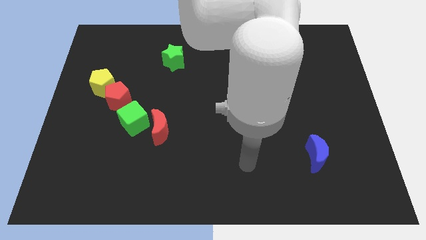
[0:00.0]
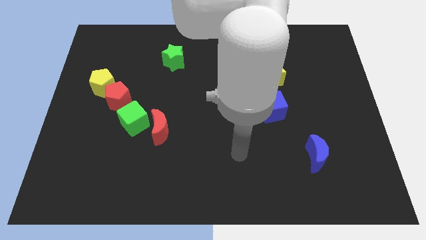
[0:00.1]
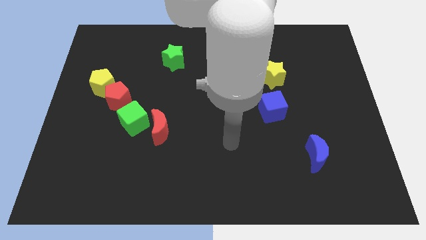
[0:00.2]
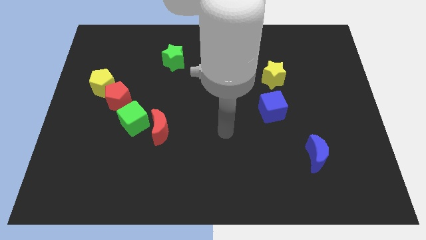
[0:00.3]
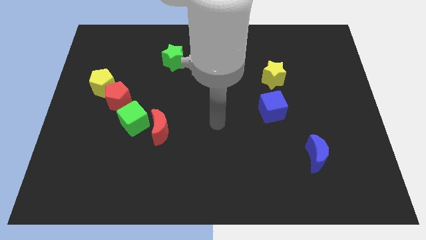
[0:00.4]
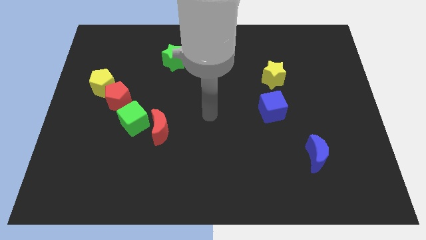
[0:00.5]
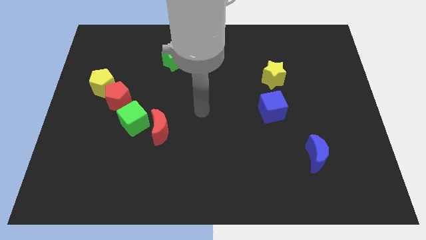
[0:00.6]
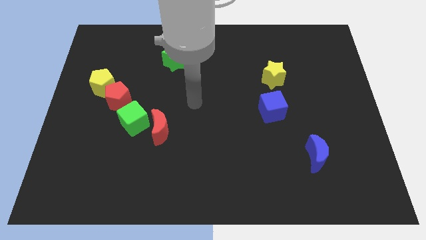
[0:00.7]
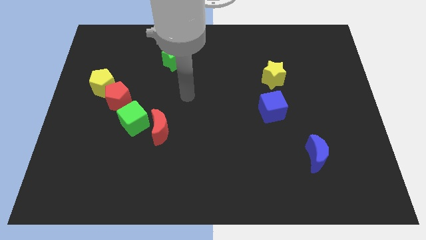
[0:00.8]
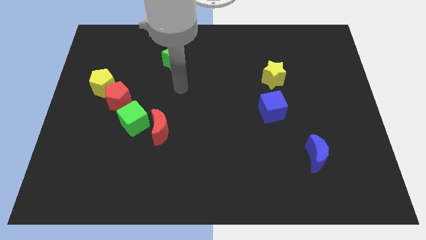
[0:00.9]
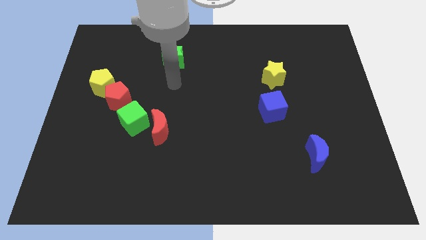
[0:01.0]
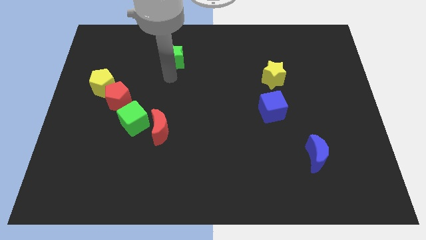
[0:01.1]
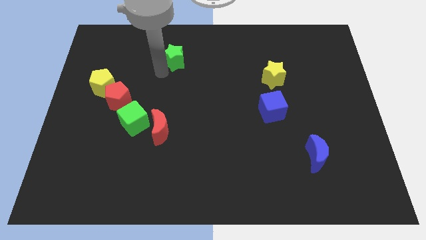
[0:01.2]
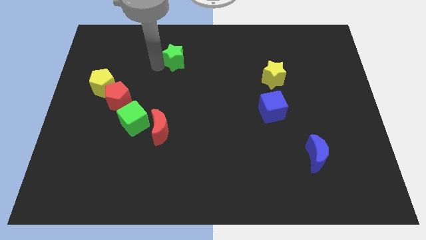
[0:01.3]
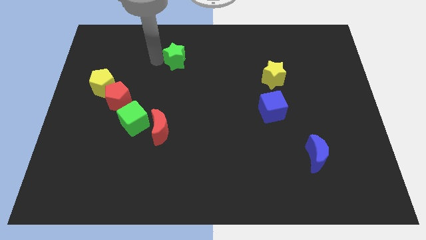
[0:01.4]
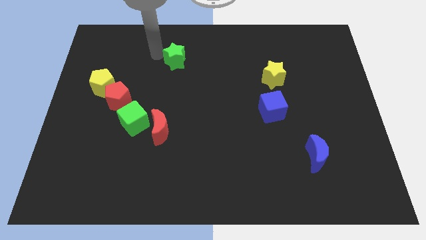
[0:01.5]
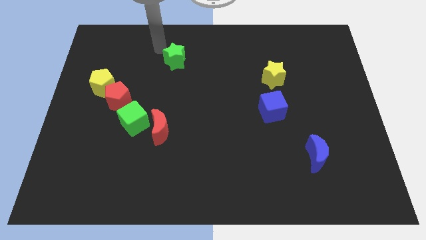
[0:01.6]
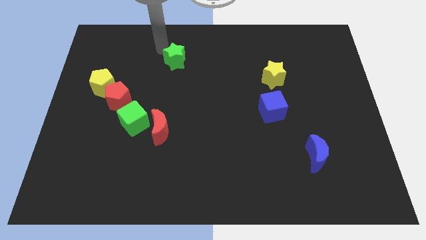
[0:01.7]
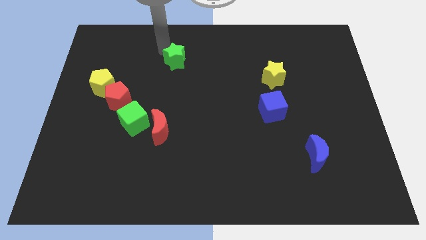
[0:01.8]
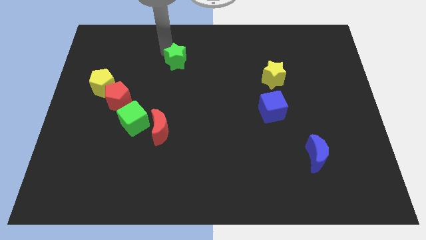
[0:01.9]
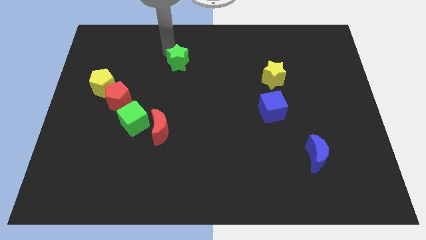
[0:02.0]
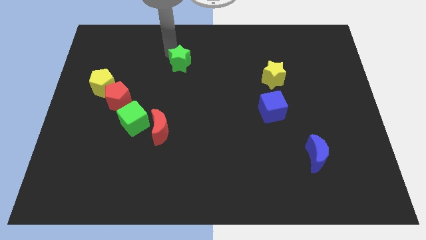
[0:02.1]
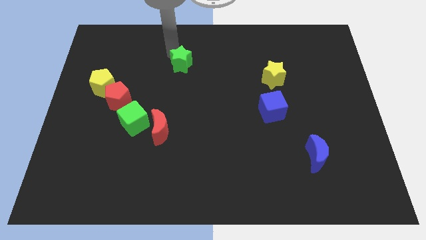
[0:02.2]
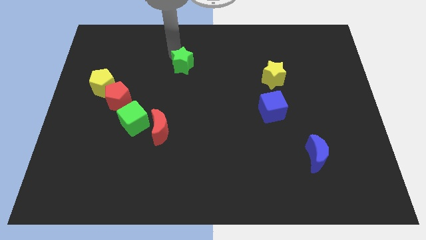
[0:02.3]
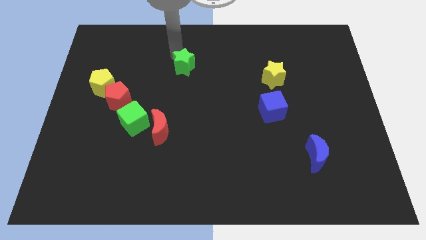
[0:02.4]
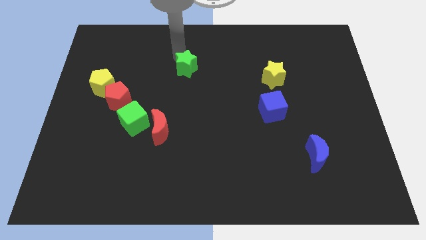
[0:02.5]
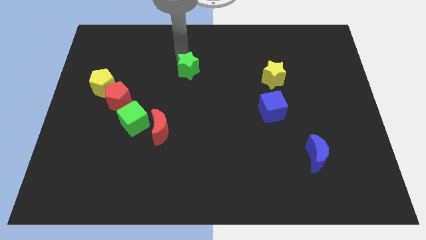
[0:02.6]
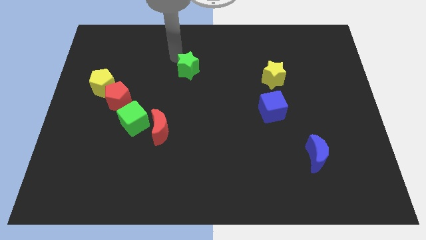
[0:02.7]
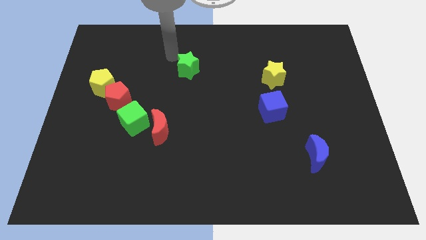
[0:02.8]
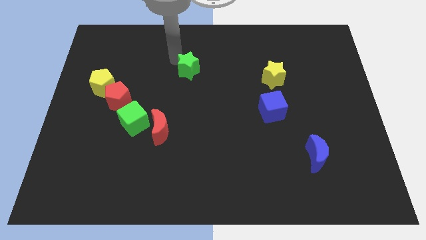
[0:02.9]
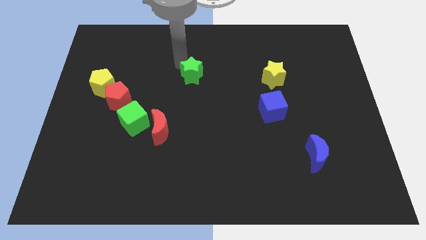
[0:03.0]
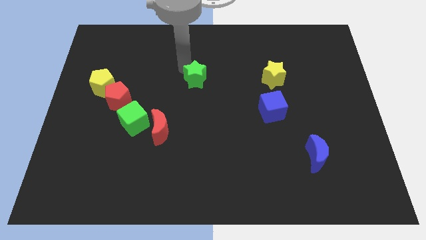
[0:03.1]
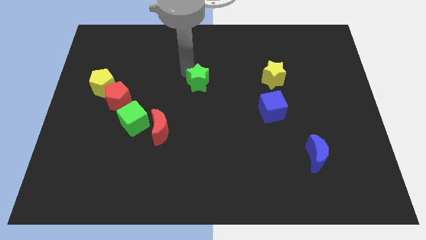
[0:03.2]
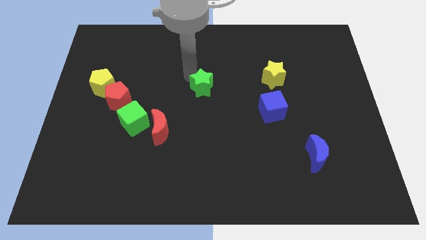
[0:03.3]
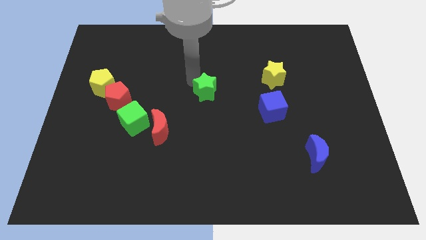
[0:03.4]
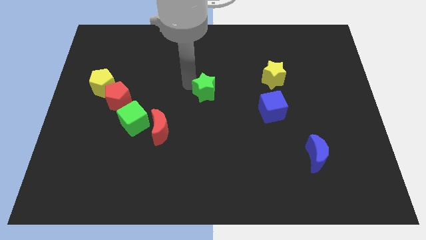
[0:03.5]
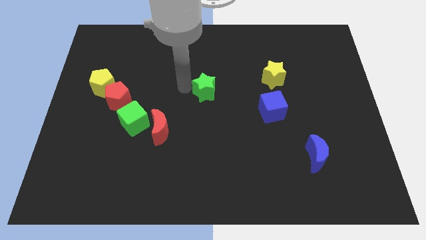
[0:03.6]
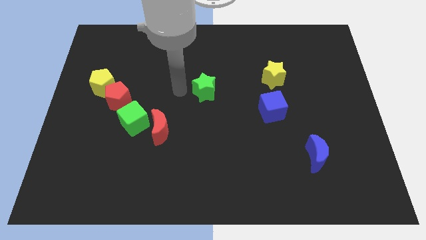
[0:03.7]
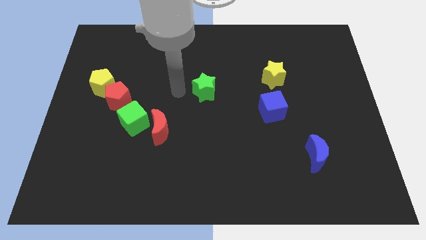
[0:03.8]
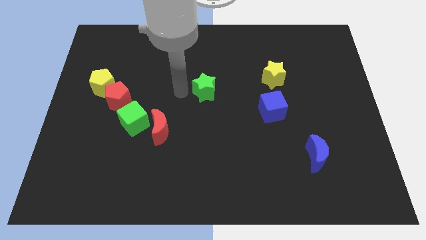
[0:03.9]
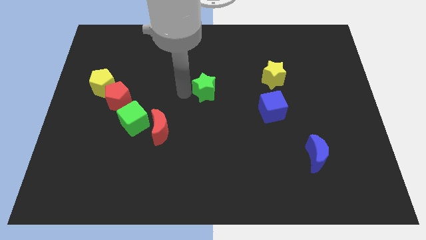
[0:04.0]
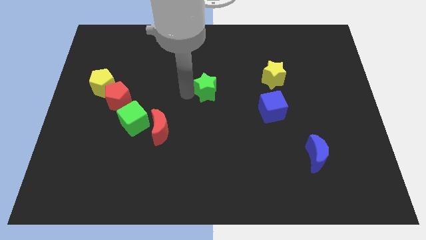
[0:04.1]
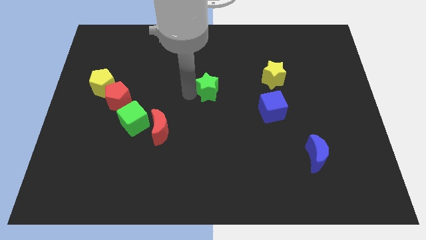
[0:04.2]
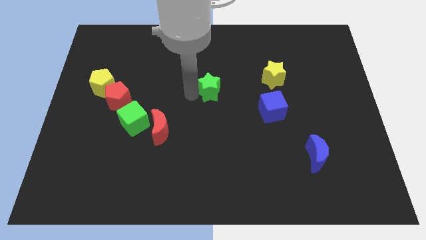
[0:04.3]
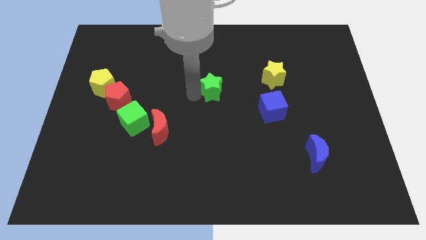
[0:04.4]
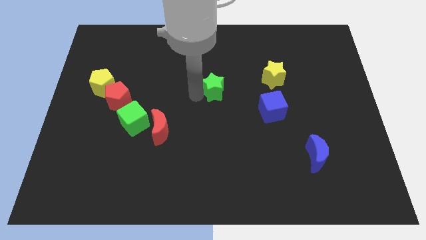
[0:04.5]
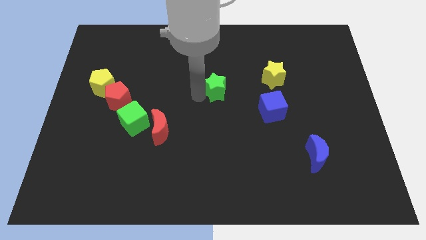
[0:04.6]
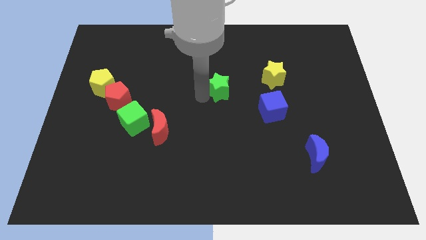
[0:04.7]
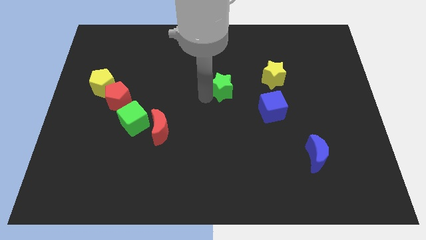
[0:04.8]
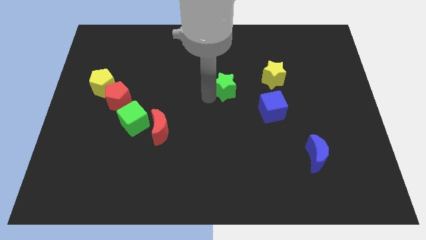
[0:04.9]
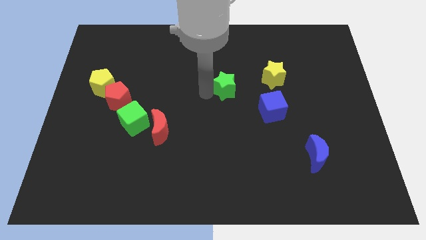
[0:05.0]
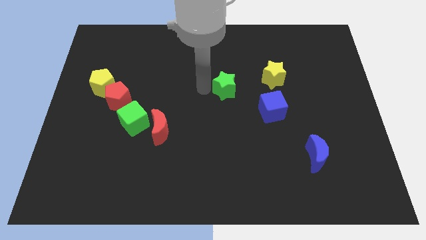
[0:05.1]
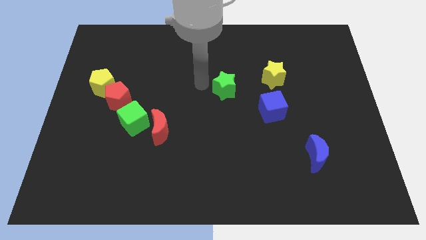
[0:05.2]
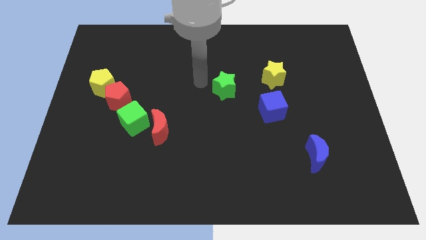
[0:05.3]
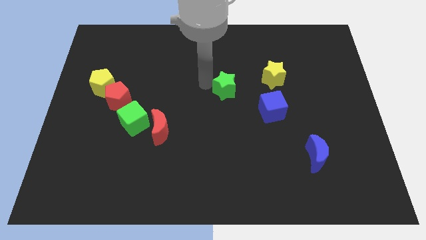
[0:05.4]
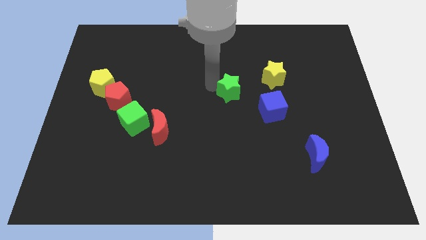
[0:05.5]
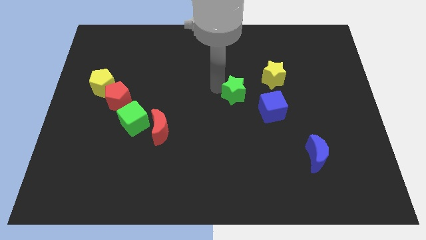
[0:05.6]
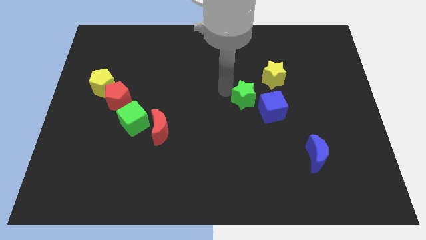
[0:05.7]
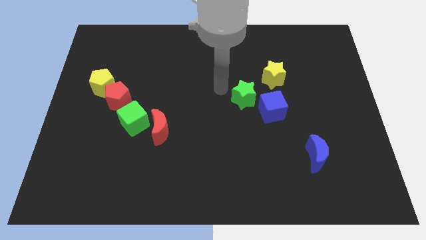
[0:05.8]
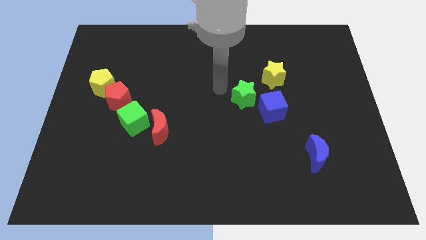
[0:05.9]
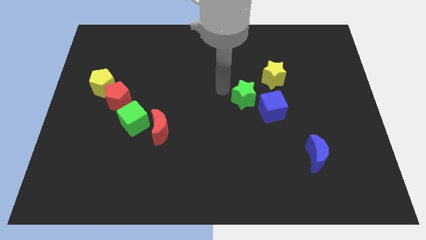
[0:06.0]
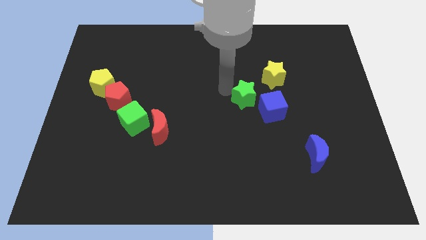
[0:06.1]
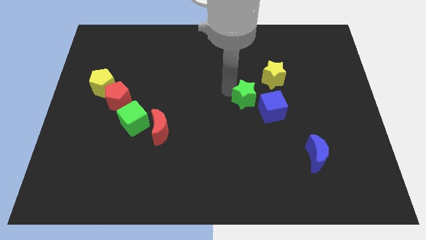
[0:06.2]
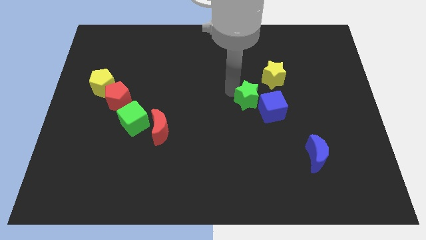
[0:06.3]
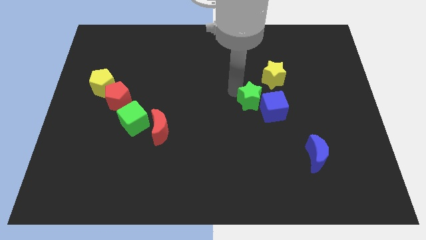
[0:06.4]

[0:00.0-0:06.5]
move the green star next to the blue cube

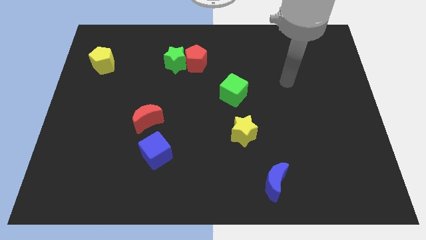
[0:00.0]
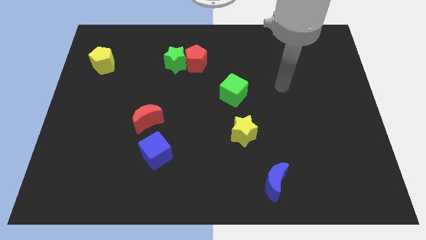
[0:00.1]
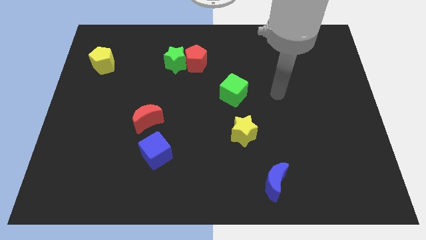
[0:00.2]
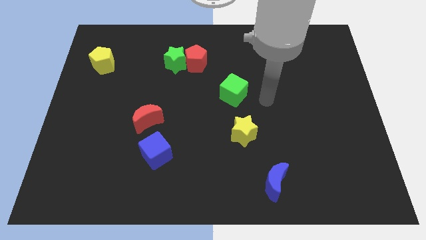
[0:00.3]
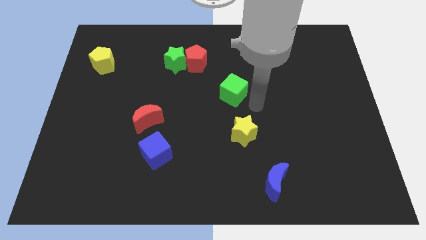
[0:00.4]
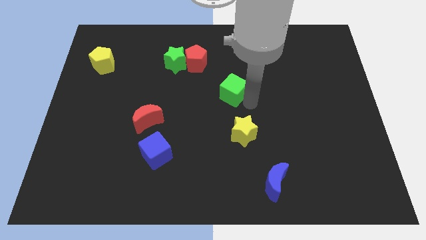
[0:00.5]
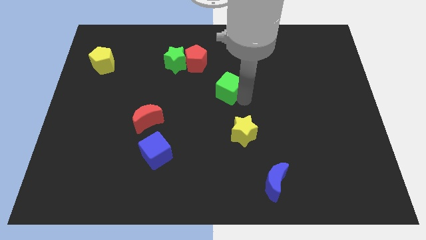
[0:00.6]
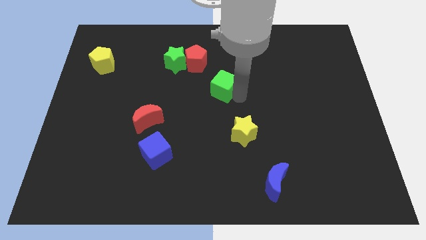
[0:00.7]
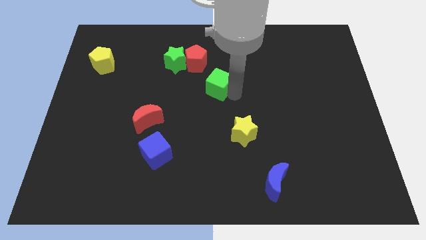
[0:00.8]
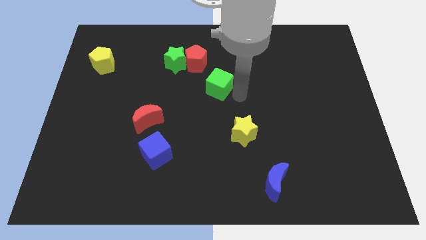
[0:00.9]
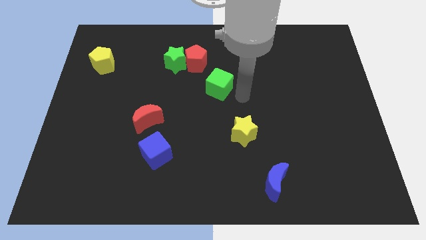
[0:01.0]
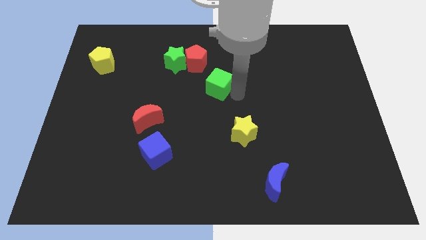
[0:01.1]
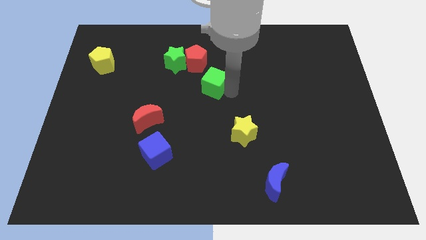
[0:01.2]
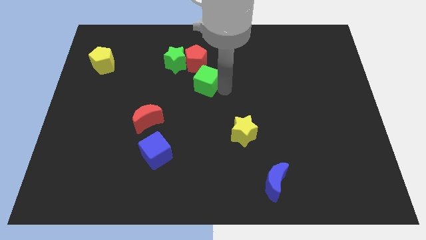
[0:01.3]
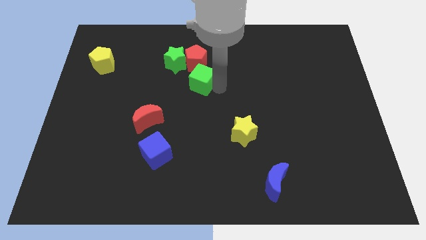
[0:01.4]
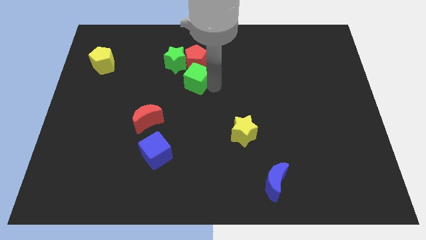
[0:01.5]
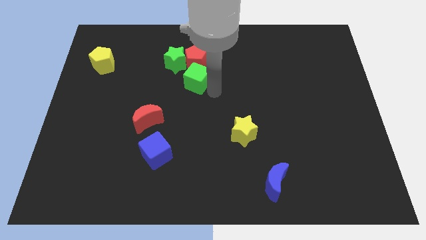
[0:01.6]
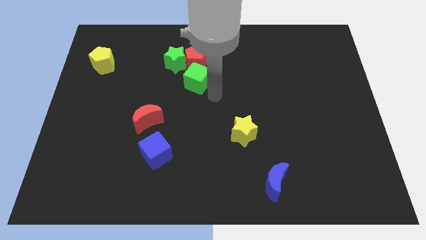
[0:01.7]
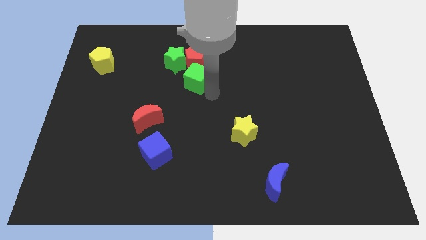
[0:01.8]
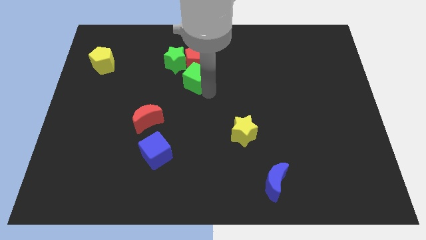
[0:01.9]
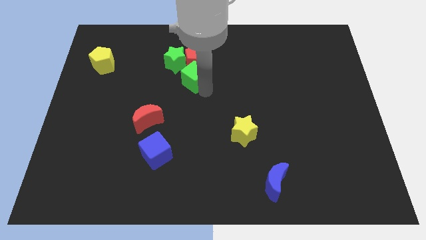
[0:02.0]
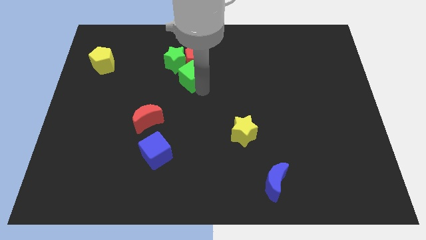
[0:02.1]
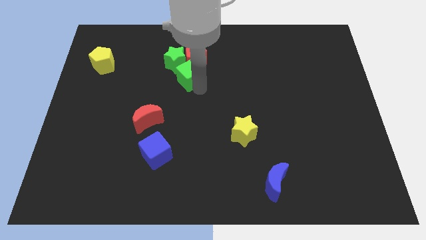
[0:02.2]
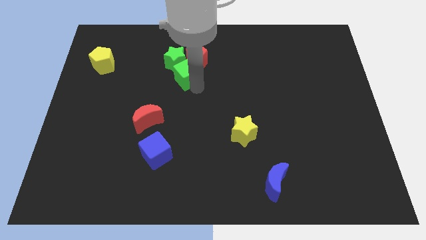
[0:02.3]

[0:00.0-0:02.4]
slide the green cube to the green star
